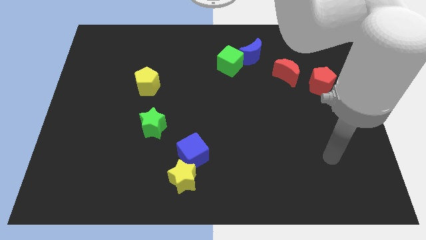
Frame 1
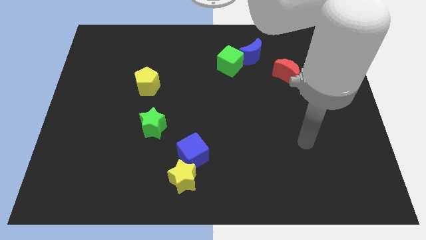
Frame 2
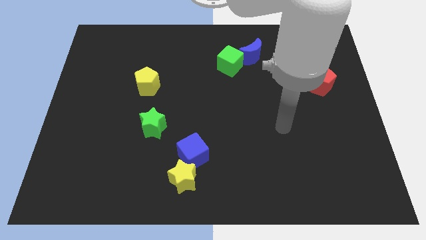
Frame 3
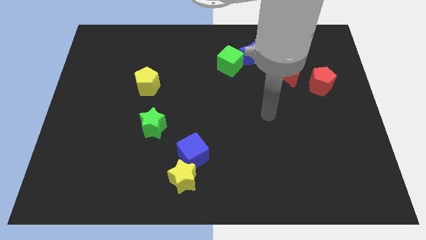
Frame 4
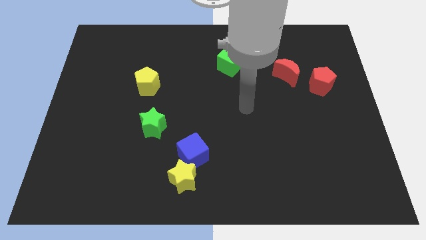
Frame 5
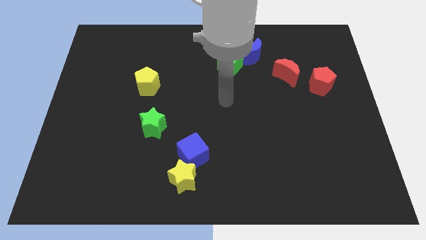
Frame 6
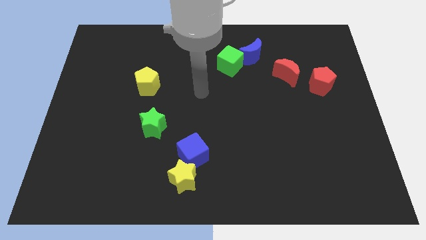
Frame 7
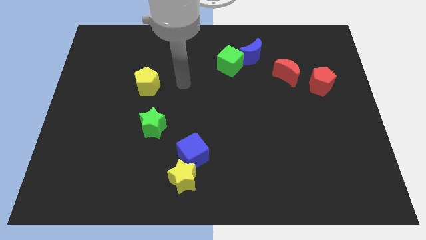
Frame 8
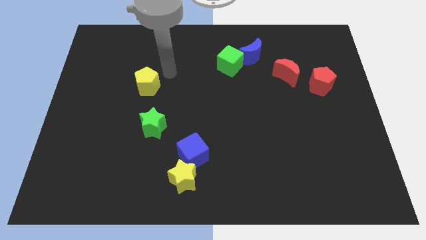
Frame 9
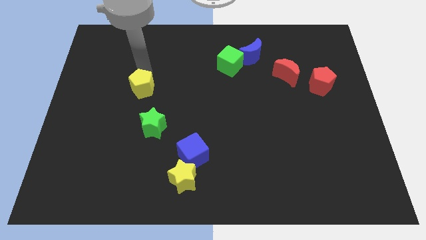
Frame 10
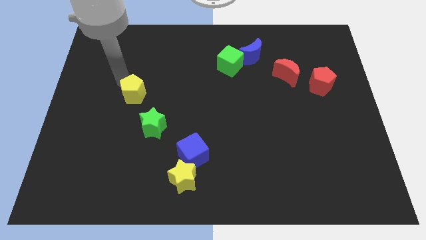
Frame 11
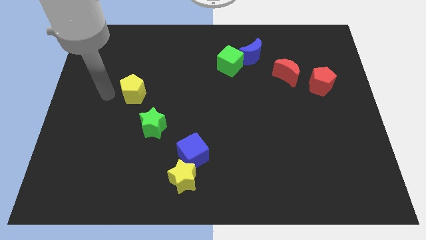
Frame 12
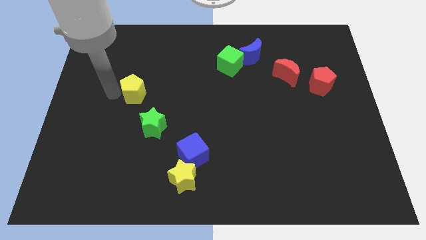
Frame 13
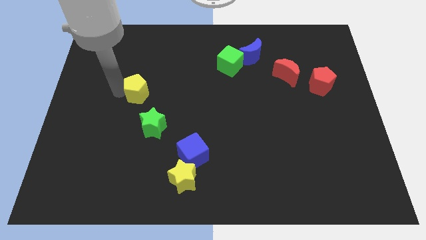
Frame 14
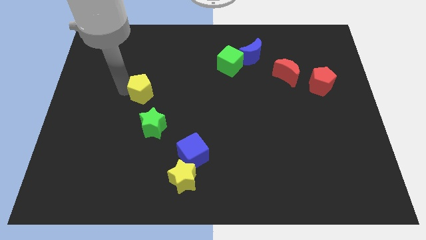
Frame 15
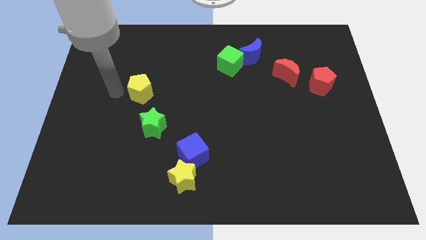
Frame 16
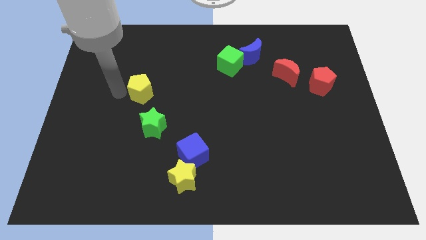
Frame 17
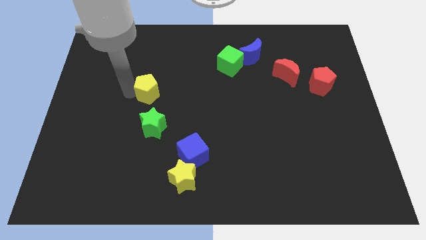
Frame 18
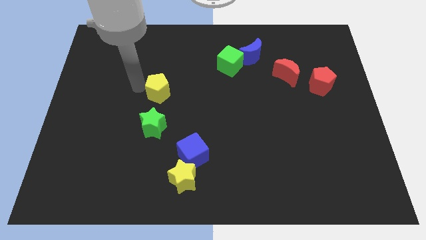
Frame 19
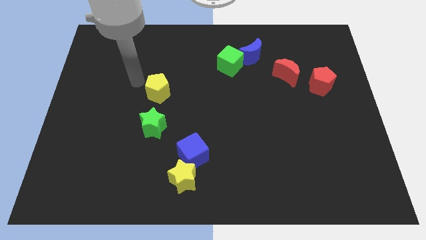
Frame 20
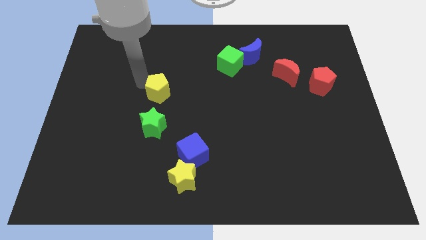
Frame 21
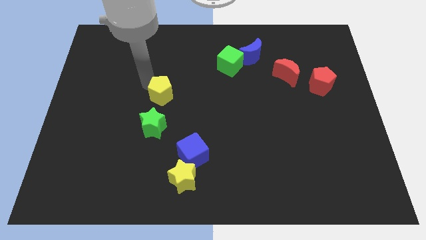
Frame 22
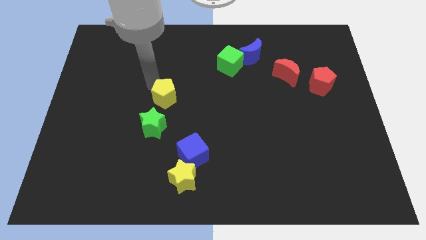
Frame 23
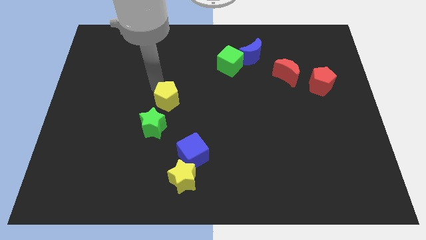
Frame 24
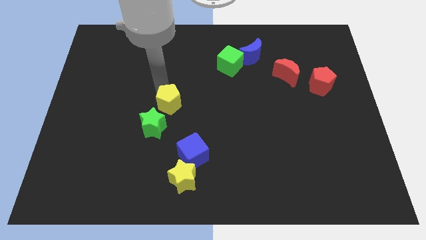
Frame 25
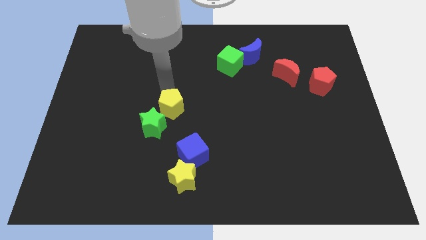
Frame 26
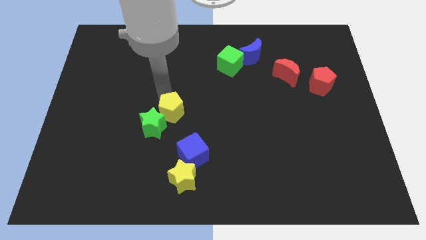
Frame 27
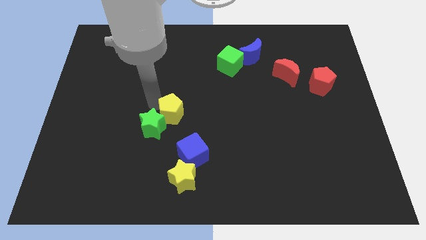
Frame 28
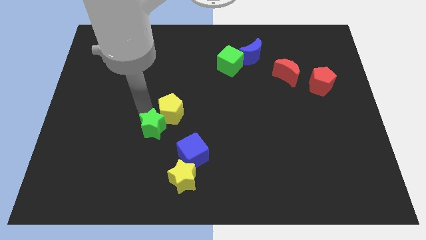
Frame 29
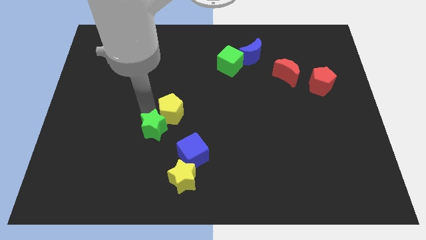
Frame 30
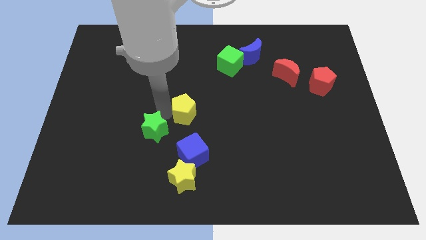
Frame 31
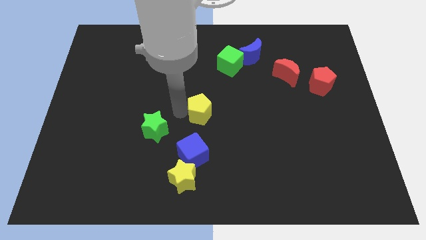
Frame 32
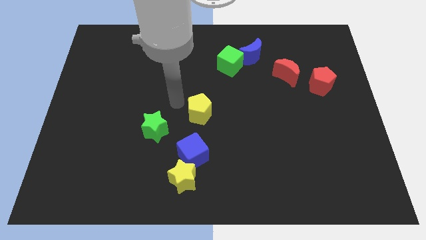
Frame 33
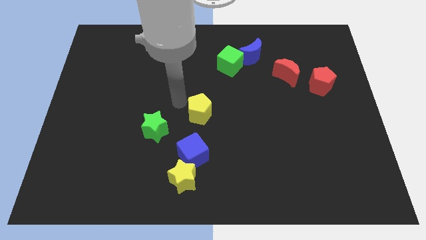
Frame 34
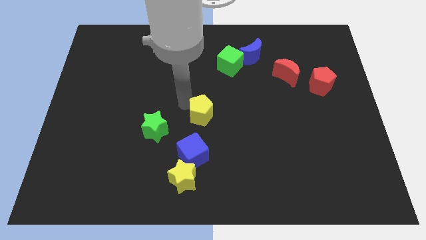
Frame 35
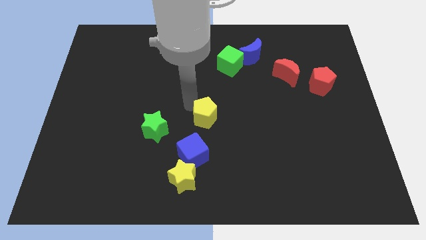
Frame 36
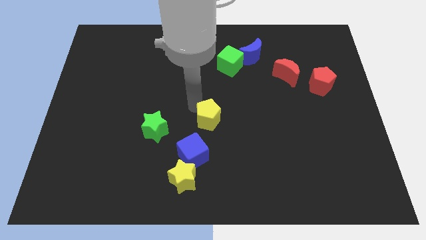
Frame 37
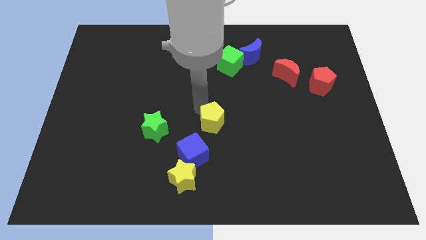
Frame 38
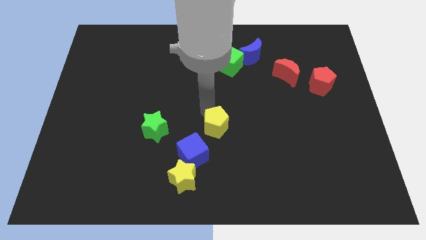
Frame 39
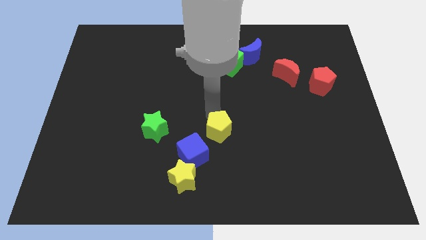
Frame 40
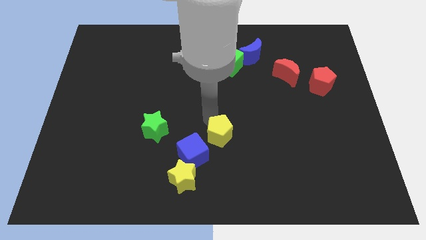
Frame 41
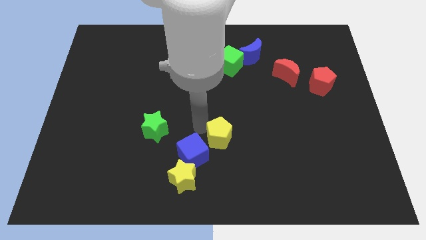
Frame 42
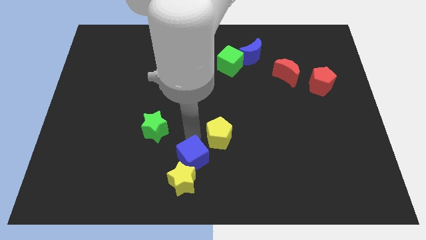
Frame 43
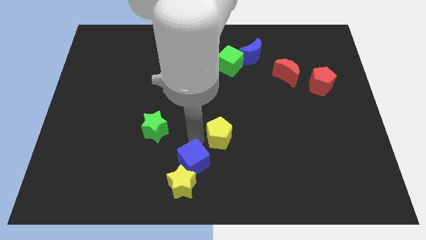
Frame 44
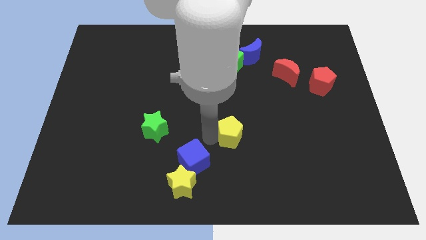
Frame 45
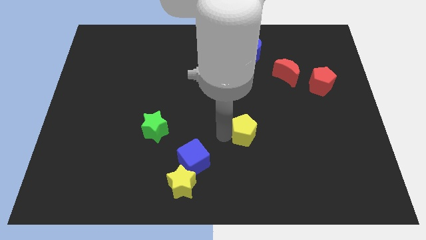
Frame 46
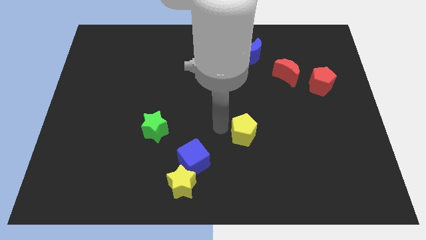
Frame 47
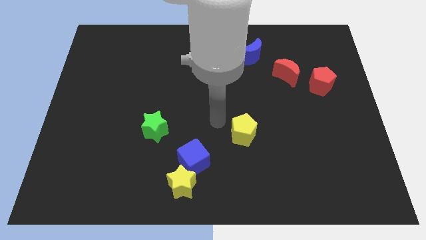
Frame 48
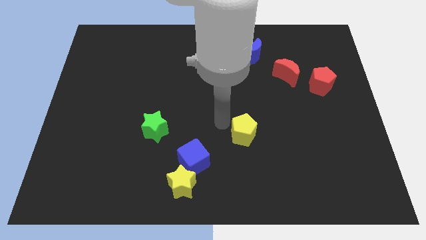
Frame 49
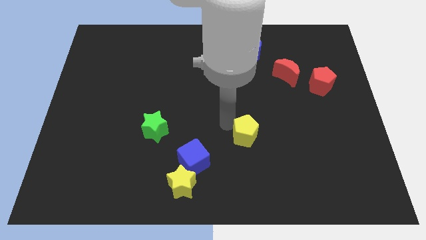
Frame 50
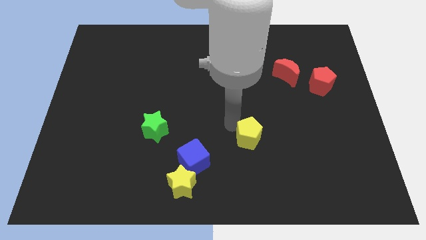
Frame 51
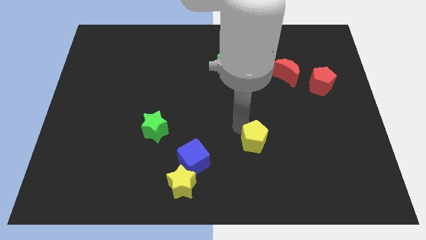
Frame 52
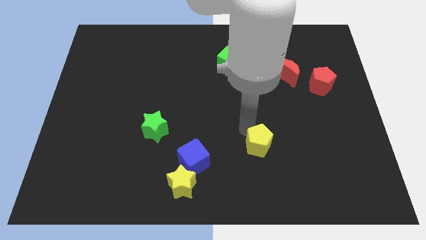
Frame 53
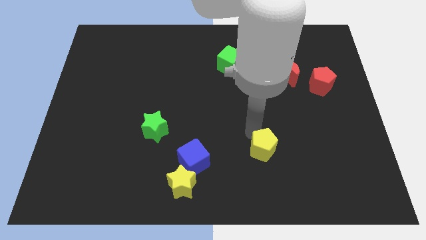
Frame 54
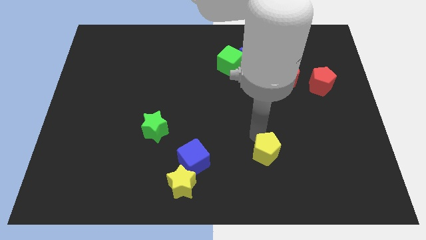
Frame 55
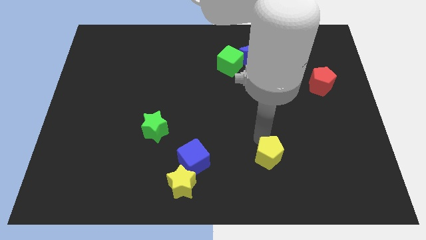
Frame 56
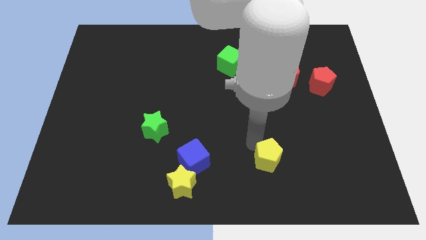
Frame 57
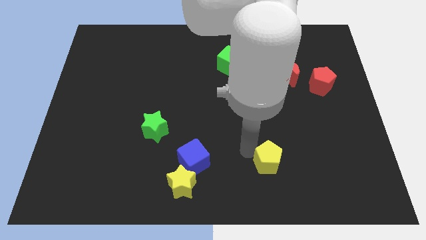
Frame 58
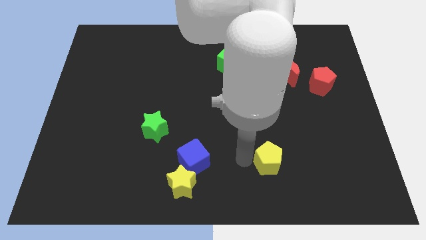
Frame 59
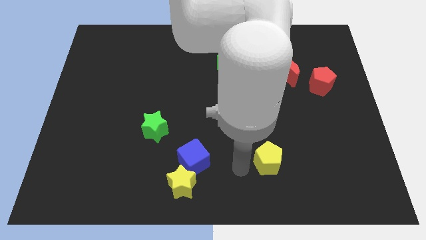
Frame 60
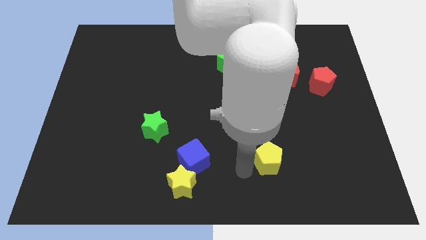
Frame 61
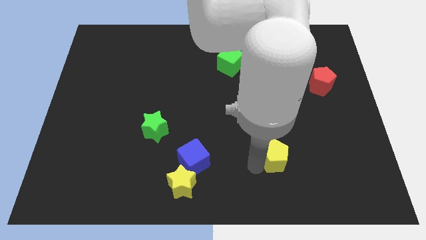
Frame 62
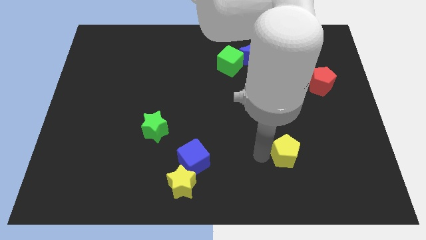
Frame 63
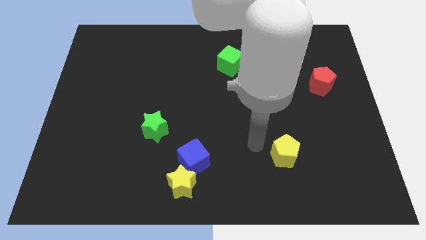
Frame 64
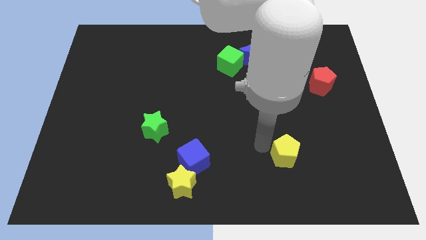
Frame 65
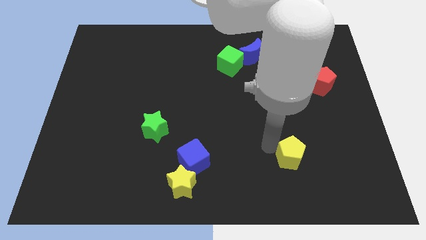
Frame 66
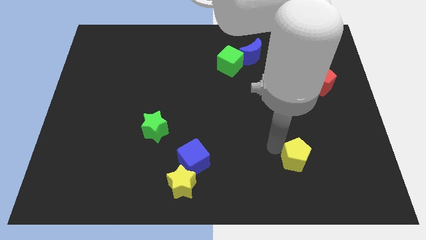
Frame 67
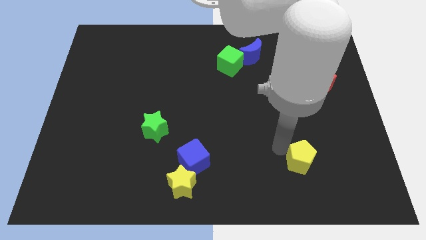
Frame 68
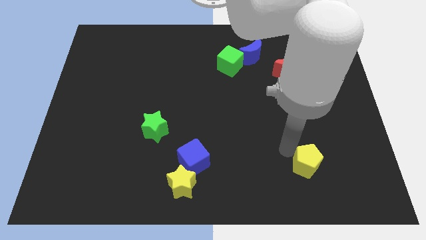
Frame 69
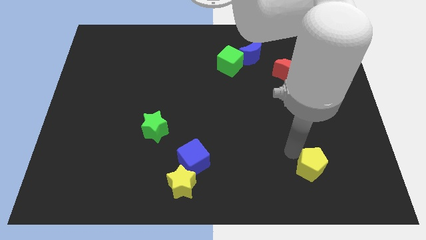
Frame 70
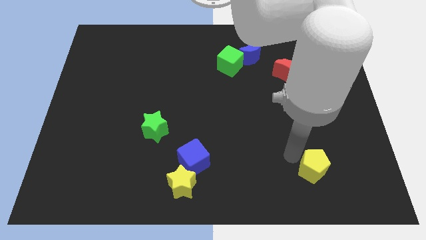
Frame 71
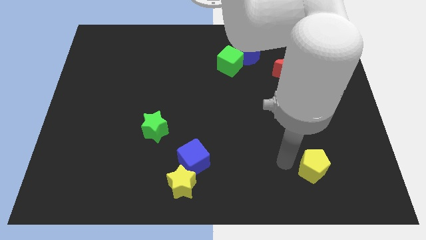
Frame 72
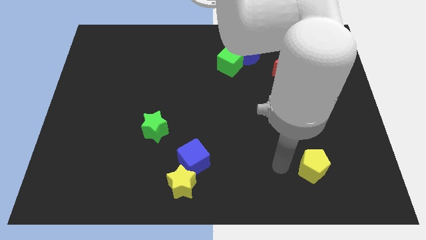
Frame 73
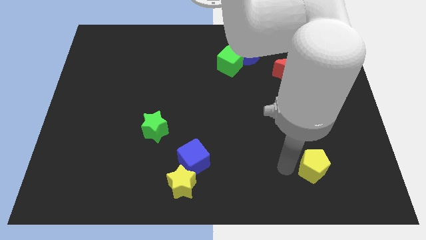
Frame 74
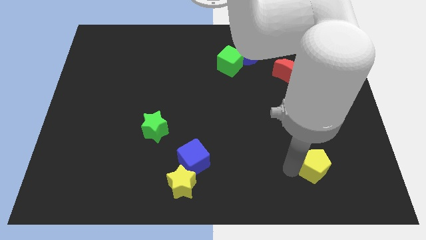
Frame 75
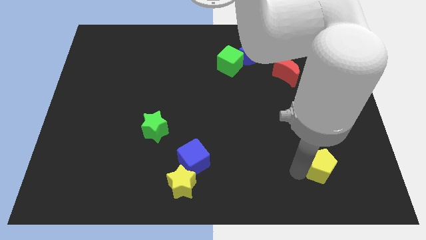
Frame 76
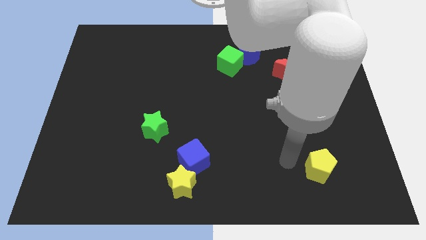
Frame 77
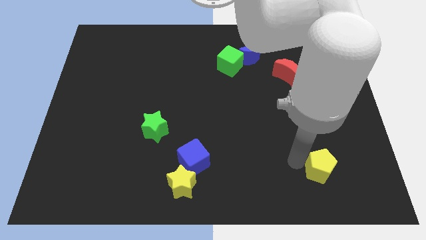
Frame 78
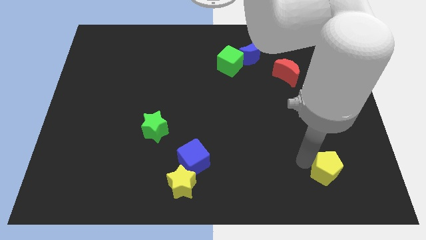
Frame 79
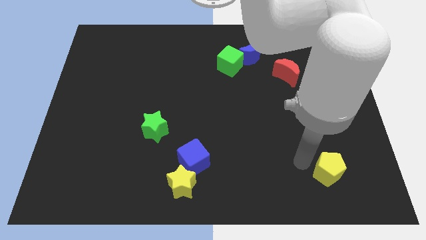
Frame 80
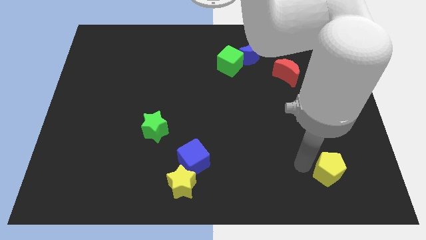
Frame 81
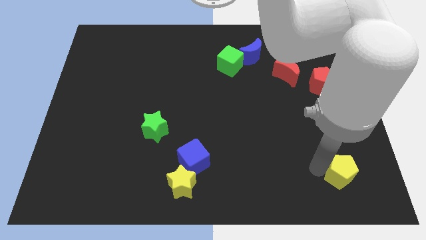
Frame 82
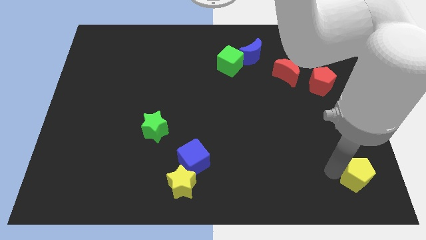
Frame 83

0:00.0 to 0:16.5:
put the yellow pentagon to the bottom right corner
